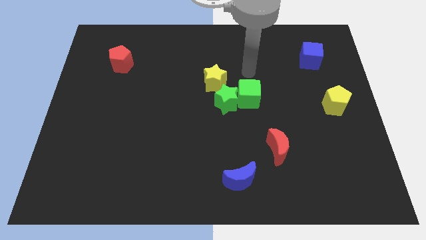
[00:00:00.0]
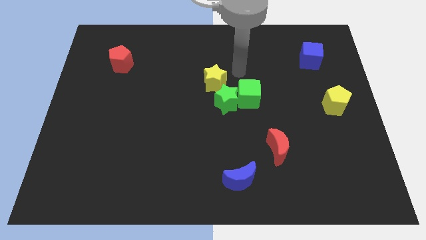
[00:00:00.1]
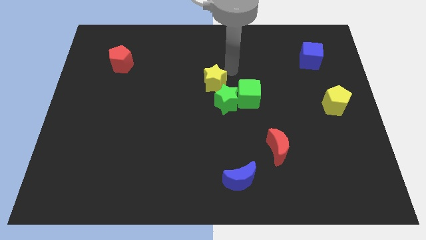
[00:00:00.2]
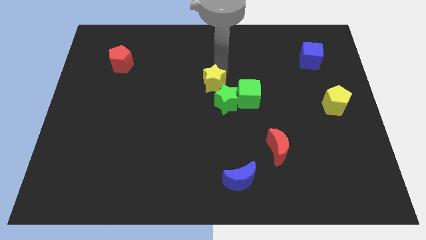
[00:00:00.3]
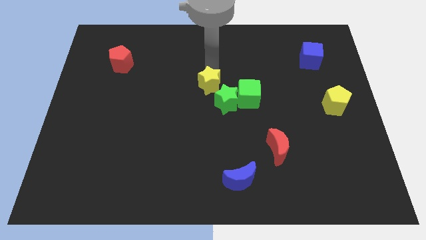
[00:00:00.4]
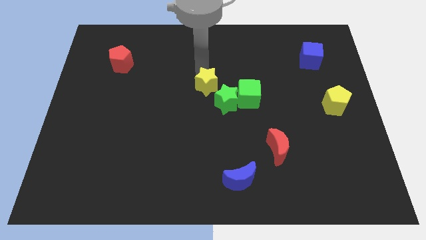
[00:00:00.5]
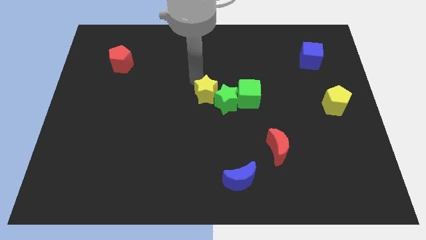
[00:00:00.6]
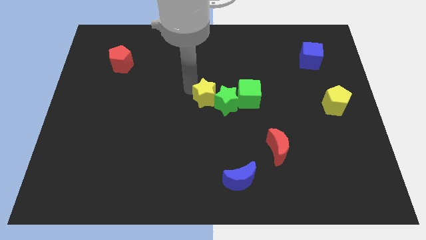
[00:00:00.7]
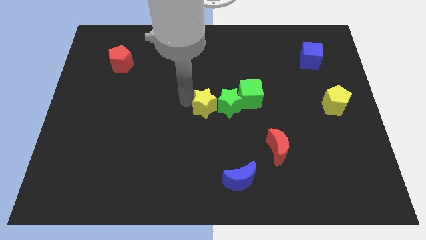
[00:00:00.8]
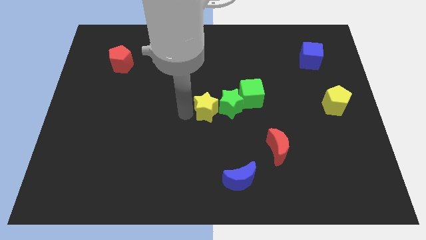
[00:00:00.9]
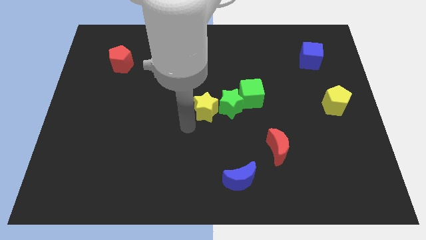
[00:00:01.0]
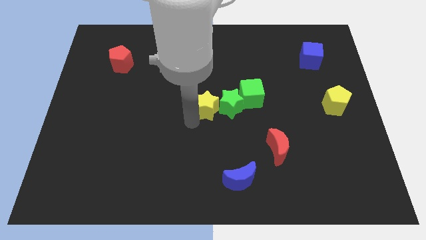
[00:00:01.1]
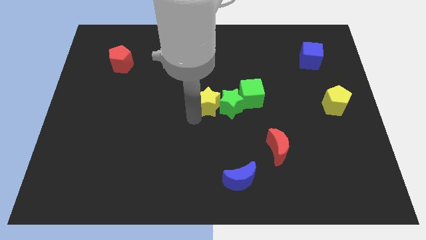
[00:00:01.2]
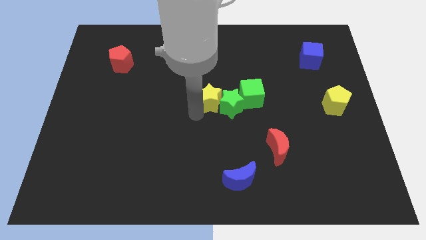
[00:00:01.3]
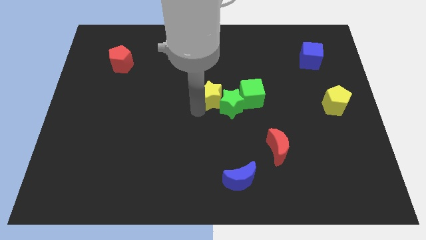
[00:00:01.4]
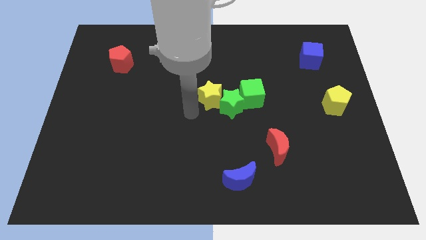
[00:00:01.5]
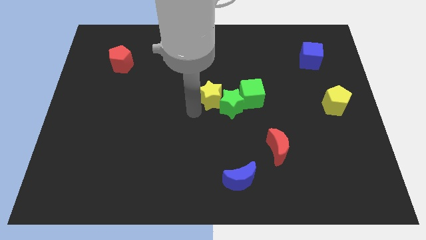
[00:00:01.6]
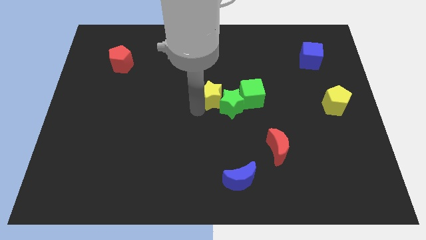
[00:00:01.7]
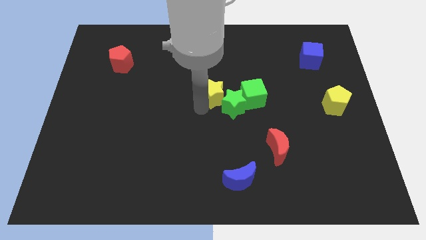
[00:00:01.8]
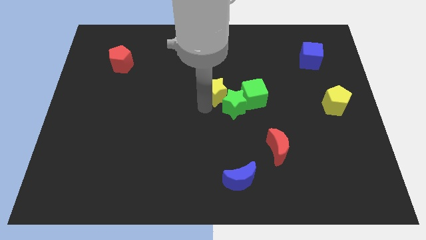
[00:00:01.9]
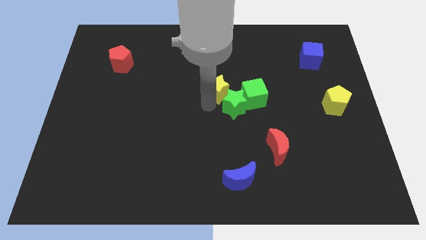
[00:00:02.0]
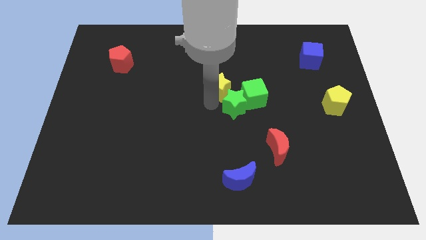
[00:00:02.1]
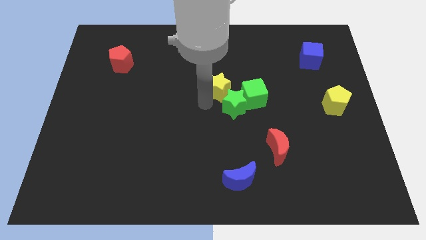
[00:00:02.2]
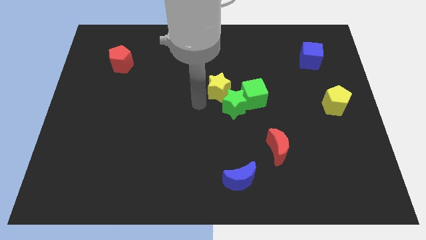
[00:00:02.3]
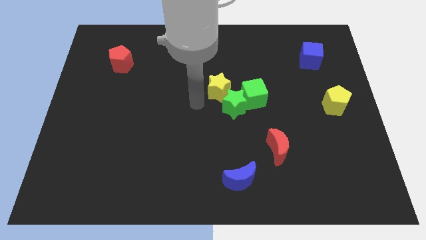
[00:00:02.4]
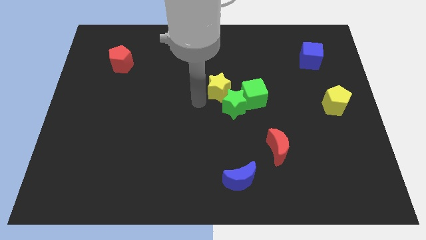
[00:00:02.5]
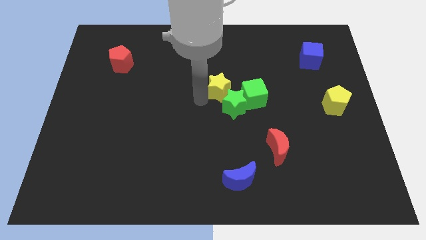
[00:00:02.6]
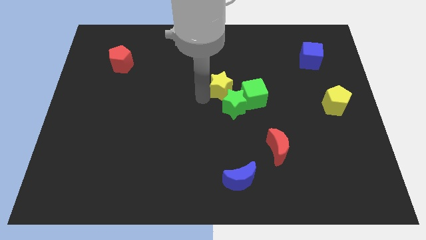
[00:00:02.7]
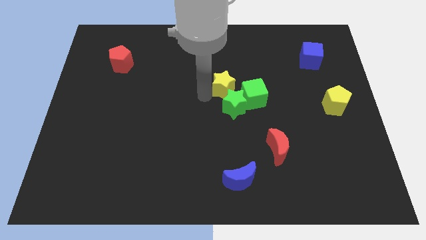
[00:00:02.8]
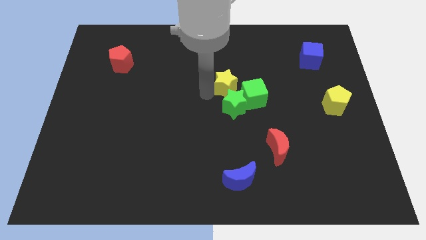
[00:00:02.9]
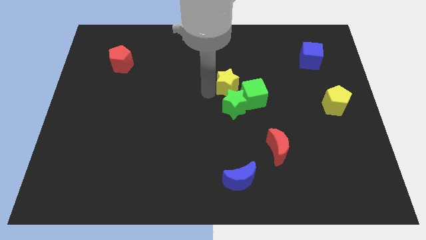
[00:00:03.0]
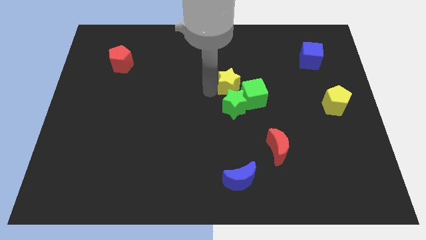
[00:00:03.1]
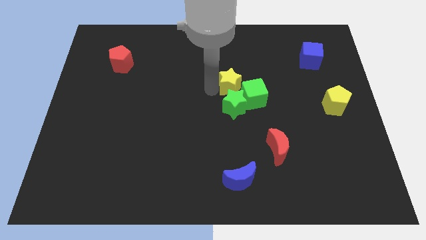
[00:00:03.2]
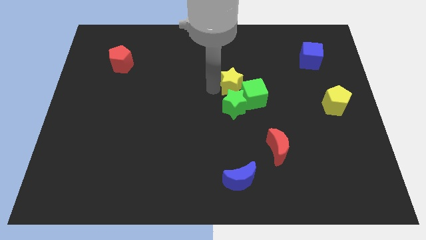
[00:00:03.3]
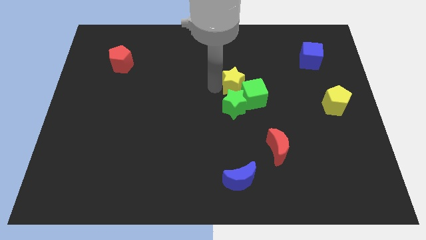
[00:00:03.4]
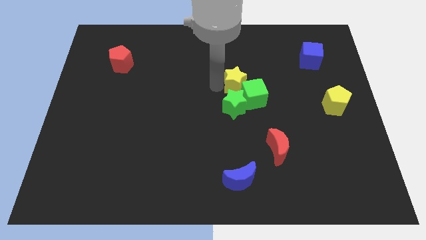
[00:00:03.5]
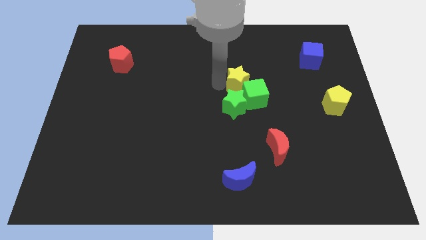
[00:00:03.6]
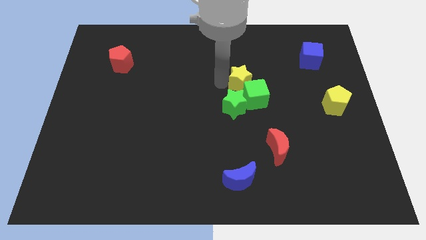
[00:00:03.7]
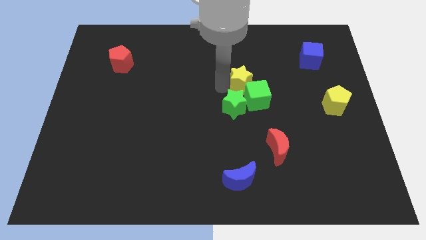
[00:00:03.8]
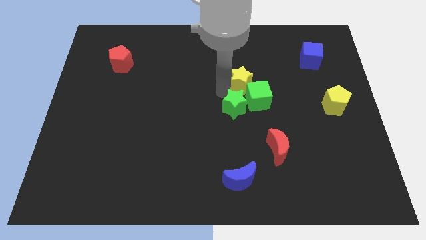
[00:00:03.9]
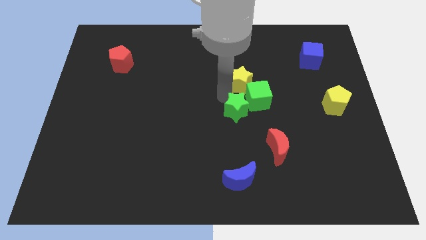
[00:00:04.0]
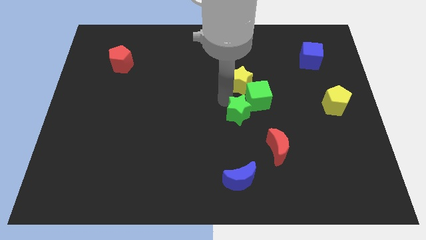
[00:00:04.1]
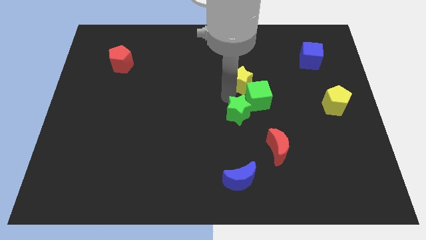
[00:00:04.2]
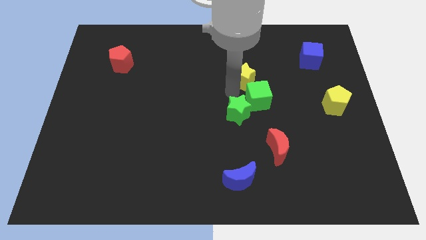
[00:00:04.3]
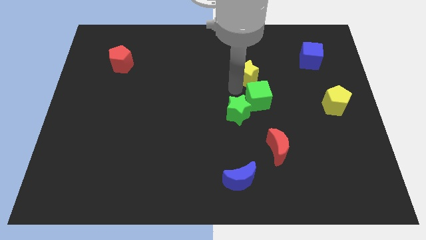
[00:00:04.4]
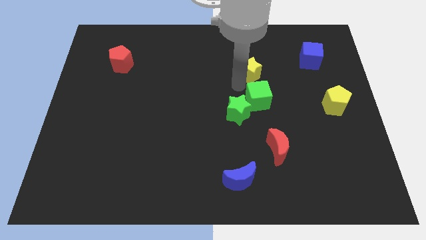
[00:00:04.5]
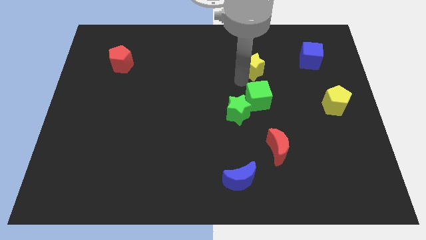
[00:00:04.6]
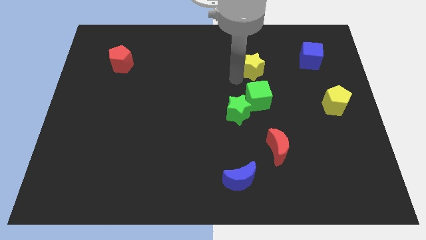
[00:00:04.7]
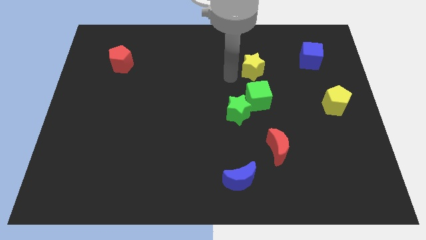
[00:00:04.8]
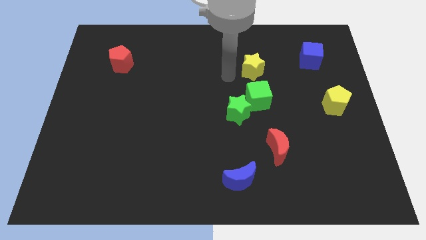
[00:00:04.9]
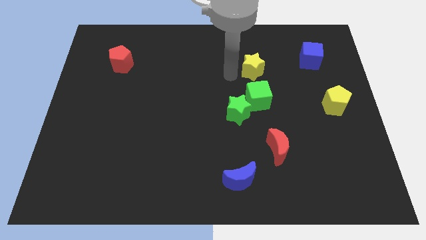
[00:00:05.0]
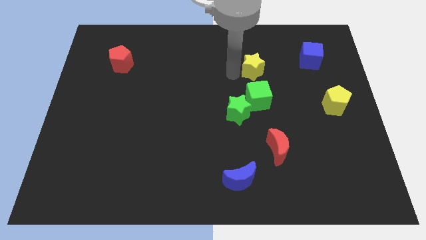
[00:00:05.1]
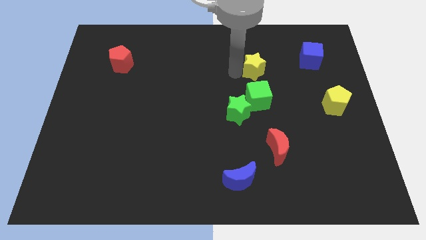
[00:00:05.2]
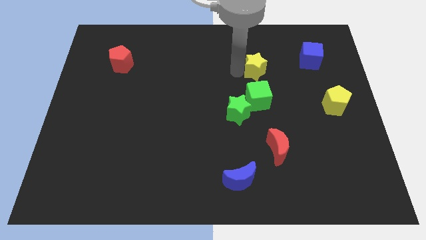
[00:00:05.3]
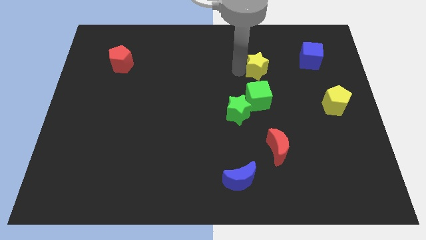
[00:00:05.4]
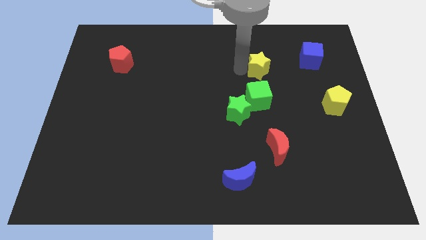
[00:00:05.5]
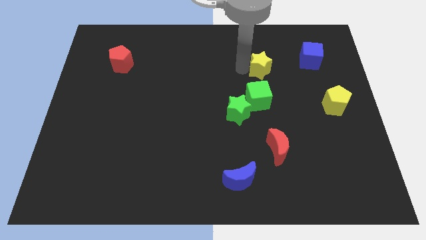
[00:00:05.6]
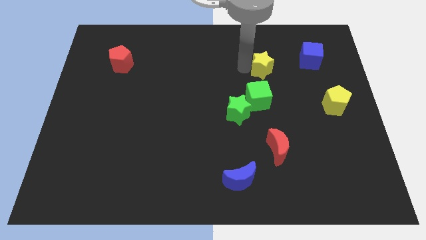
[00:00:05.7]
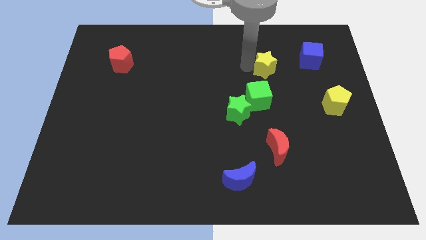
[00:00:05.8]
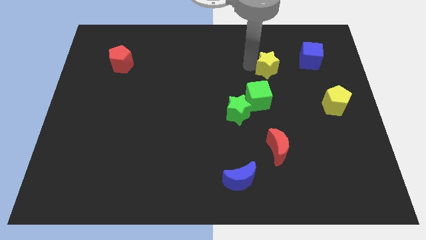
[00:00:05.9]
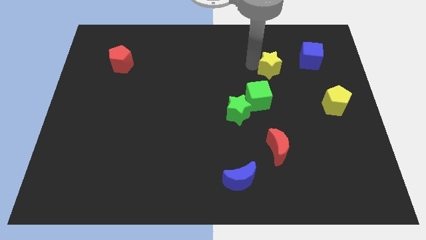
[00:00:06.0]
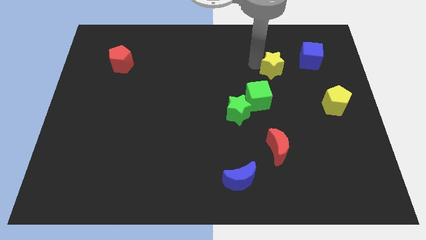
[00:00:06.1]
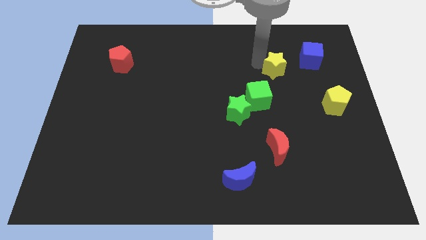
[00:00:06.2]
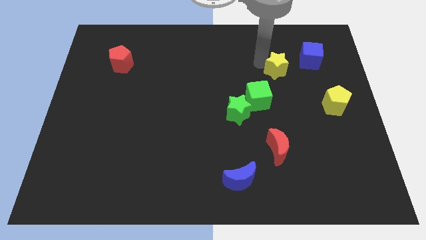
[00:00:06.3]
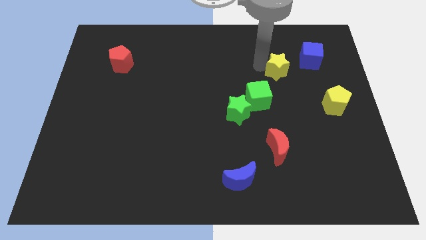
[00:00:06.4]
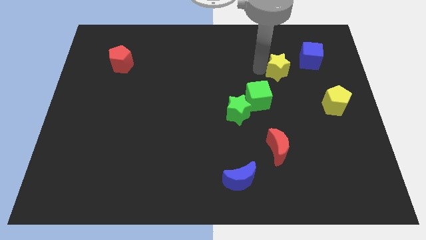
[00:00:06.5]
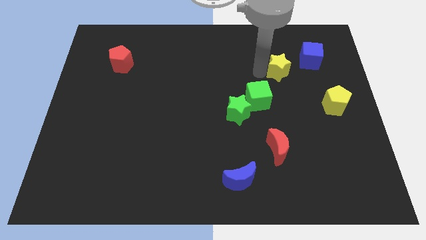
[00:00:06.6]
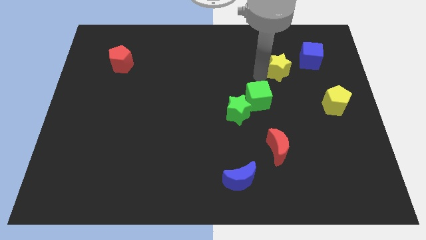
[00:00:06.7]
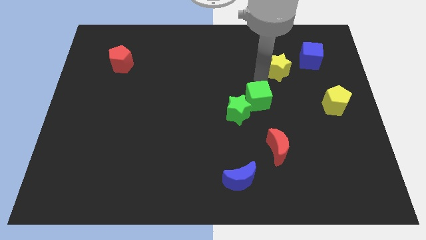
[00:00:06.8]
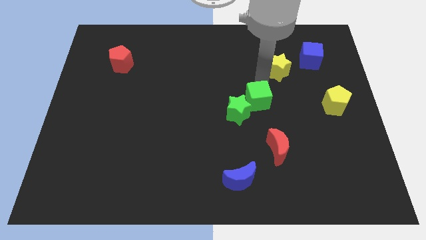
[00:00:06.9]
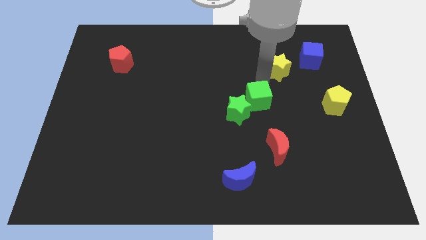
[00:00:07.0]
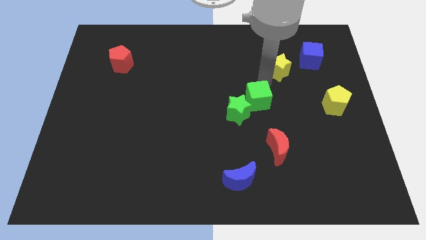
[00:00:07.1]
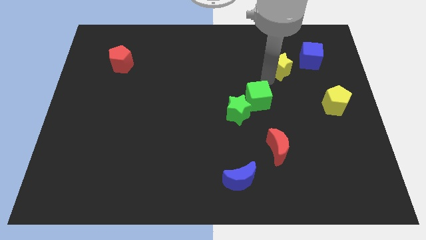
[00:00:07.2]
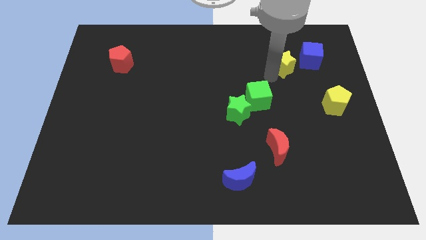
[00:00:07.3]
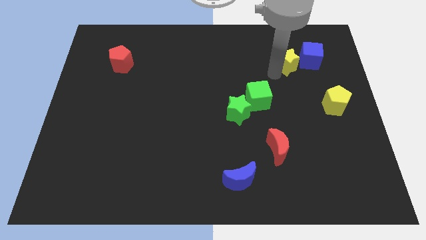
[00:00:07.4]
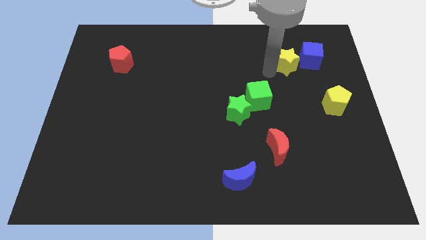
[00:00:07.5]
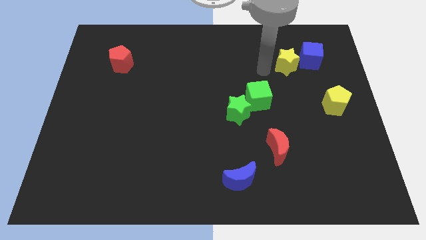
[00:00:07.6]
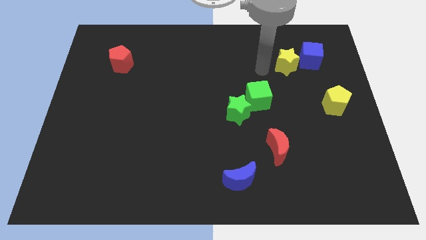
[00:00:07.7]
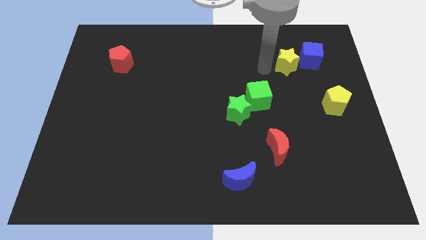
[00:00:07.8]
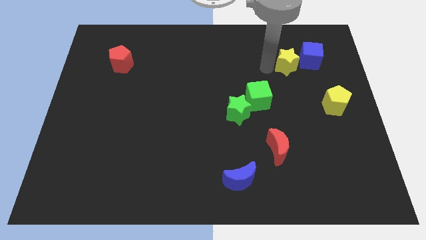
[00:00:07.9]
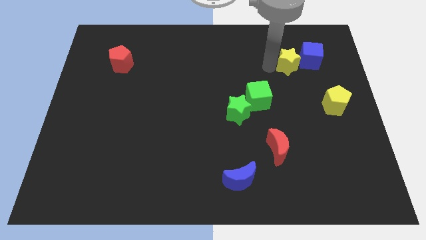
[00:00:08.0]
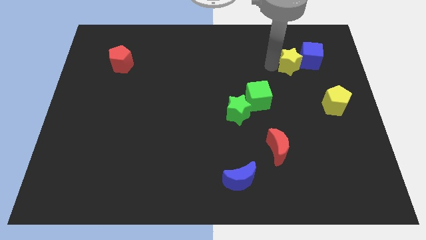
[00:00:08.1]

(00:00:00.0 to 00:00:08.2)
slide the yellow star to the blue cube
